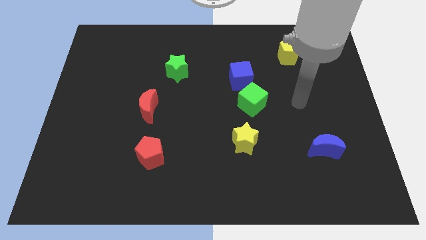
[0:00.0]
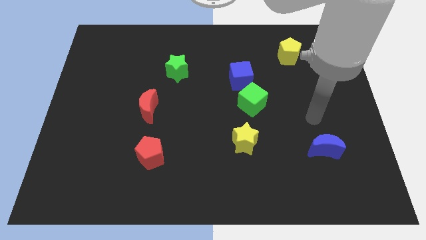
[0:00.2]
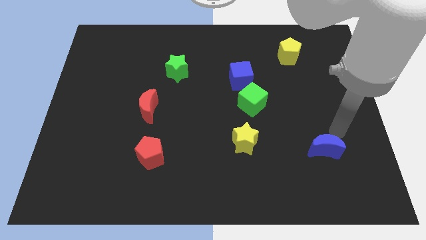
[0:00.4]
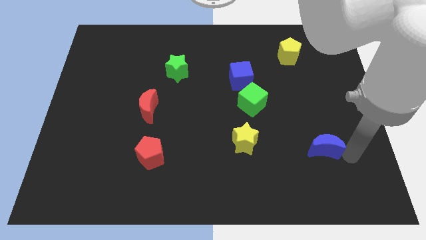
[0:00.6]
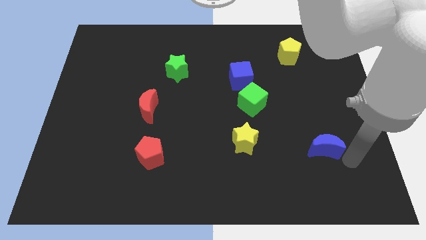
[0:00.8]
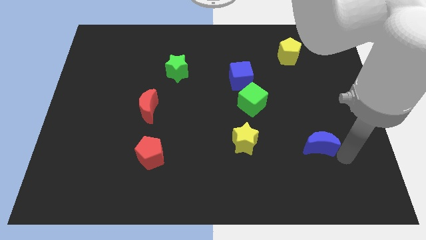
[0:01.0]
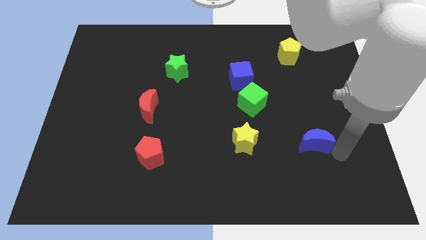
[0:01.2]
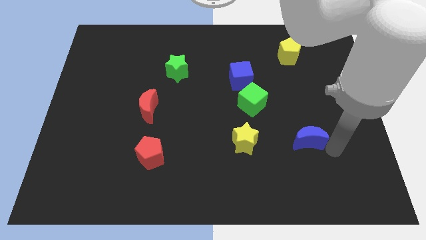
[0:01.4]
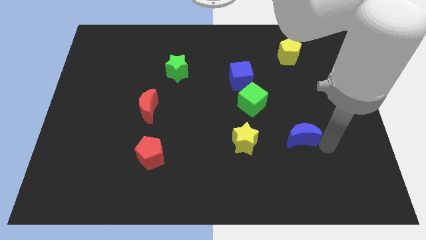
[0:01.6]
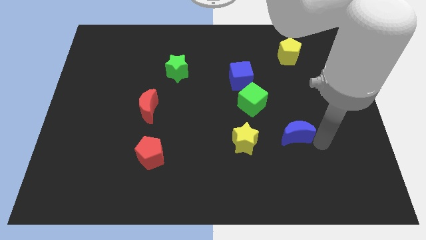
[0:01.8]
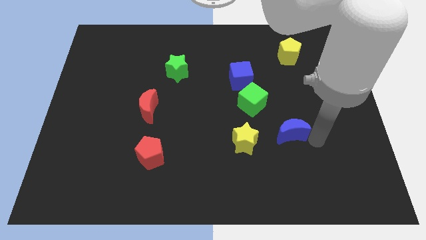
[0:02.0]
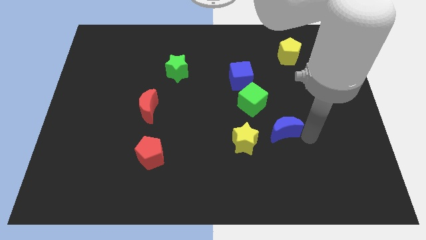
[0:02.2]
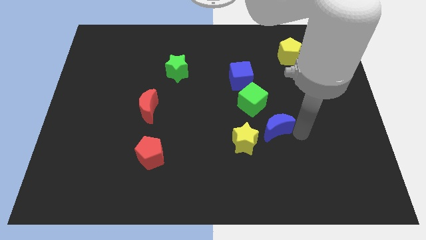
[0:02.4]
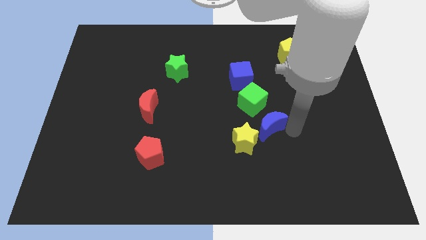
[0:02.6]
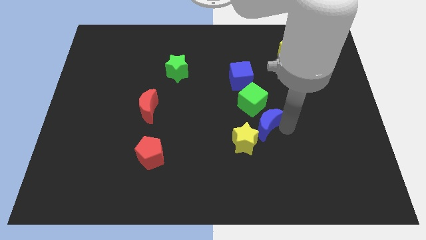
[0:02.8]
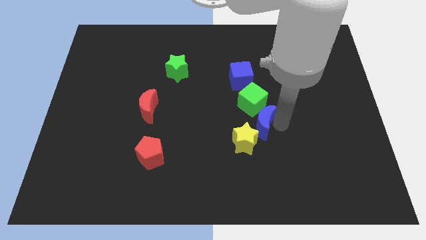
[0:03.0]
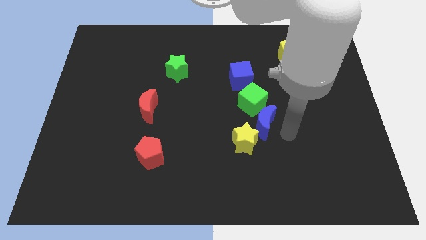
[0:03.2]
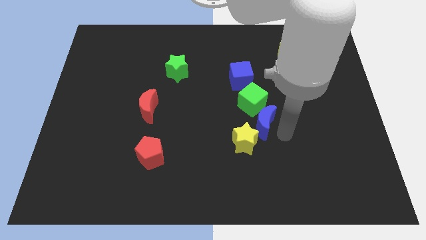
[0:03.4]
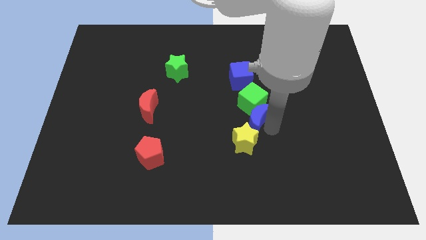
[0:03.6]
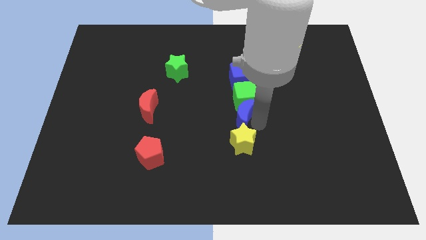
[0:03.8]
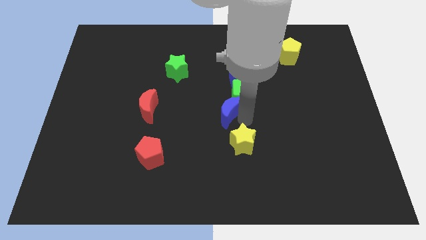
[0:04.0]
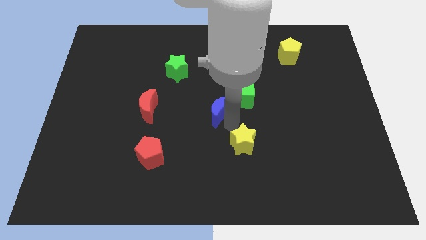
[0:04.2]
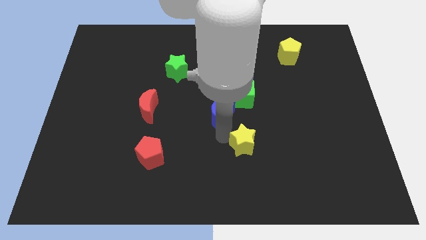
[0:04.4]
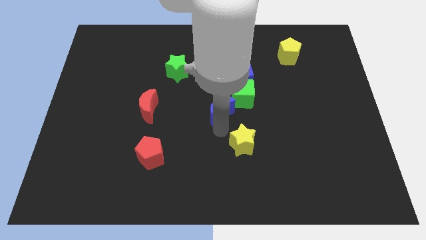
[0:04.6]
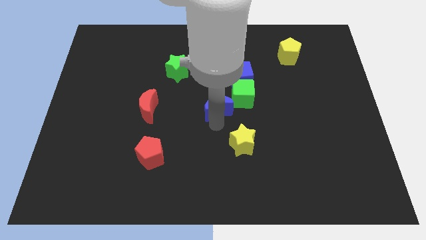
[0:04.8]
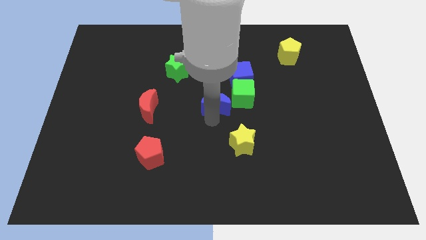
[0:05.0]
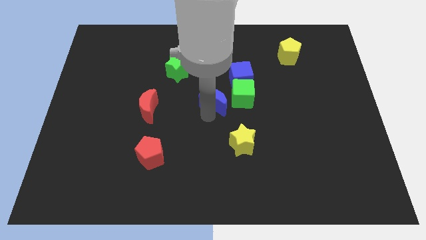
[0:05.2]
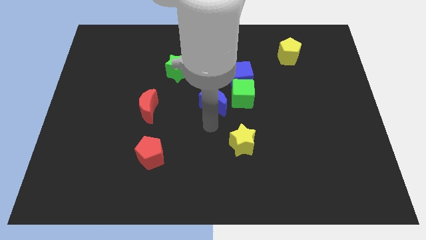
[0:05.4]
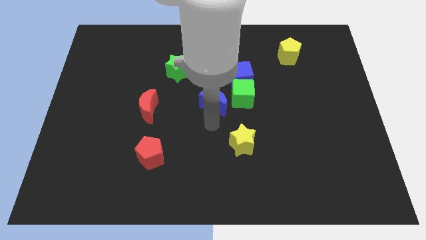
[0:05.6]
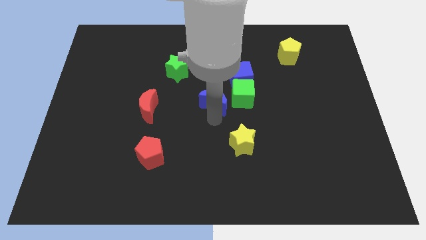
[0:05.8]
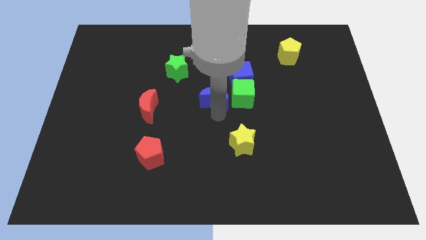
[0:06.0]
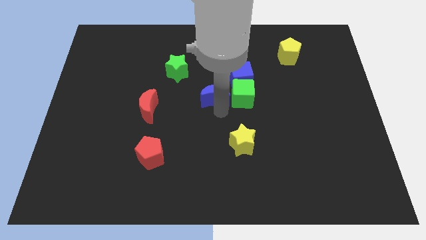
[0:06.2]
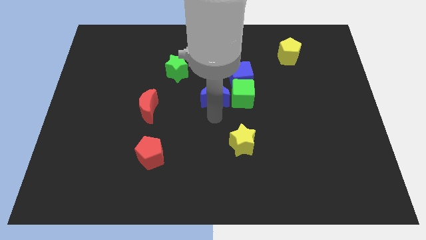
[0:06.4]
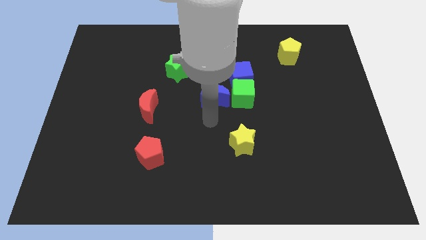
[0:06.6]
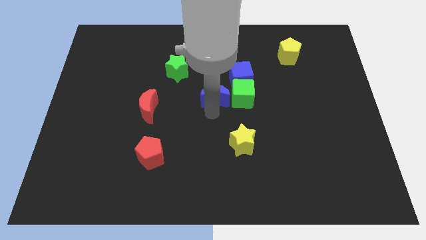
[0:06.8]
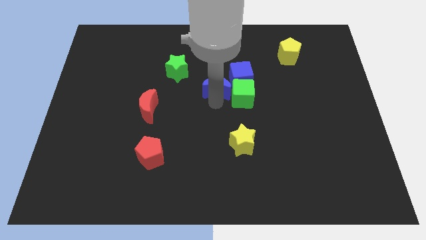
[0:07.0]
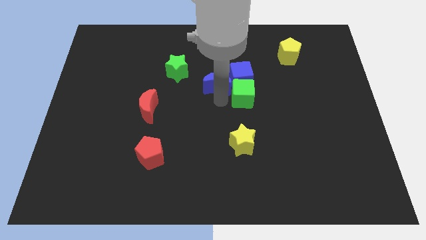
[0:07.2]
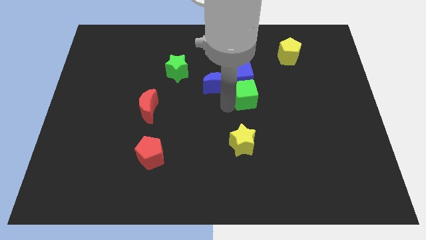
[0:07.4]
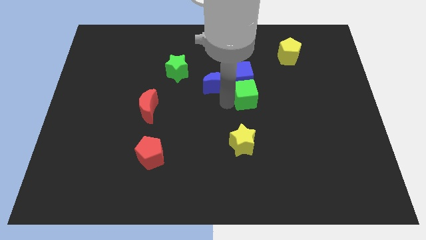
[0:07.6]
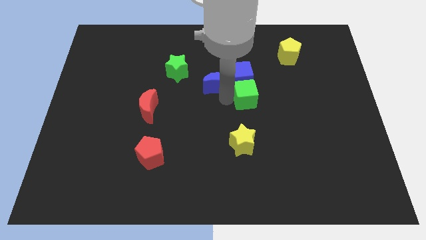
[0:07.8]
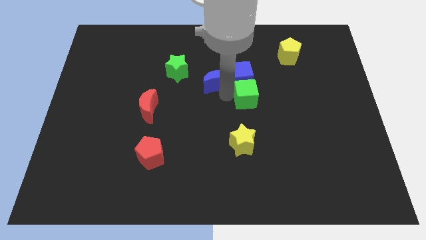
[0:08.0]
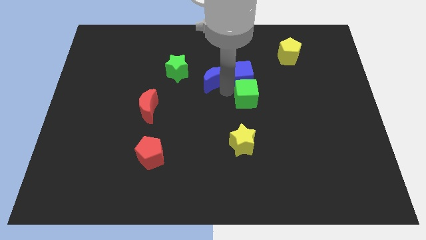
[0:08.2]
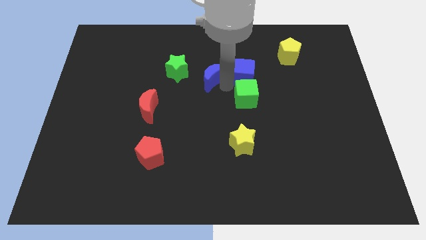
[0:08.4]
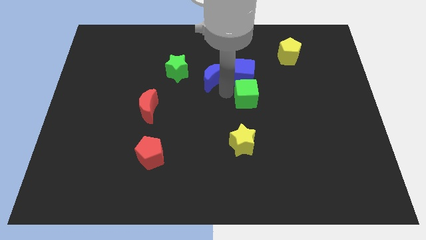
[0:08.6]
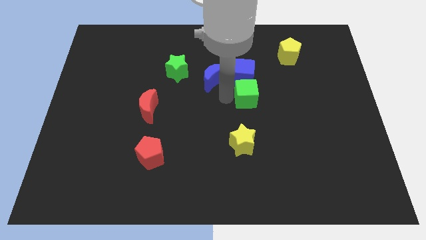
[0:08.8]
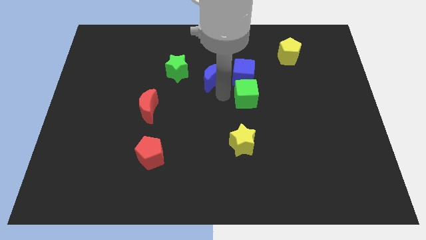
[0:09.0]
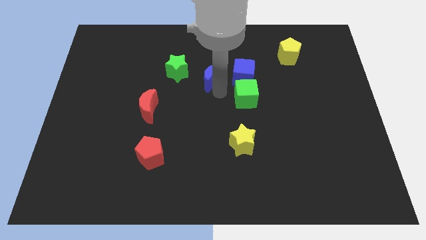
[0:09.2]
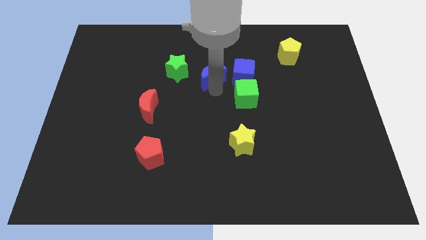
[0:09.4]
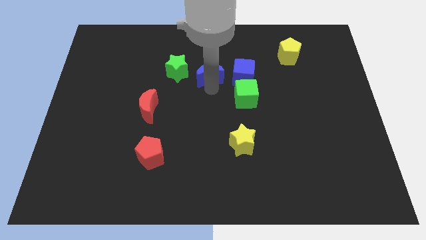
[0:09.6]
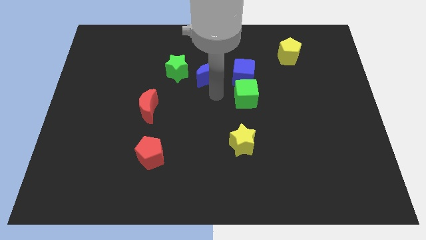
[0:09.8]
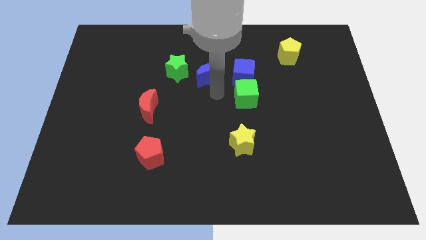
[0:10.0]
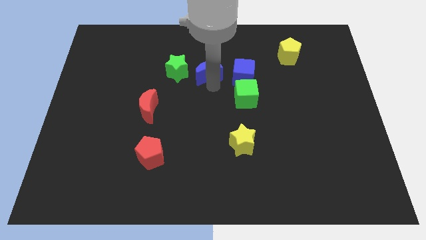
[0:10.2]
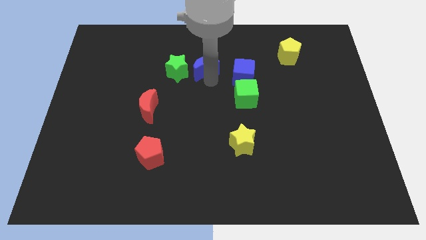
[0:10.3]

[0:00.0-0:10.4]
move the blue moon to the top right of the green star

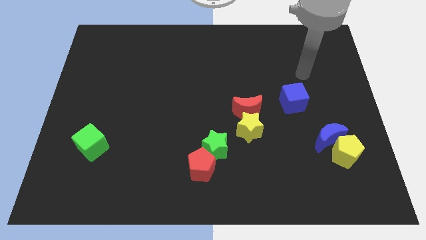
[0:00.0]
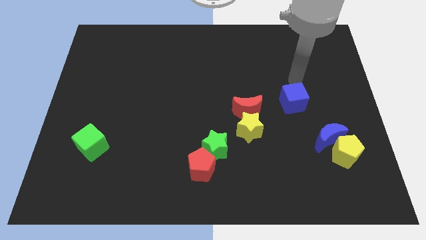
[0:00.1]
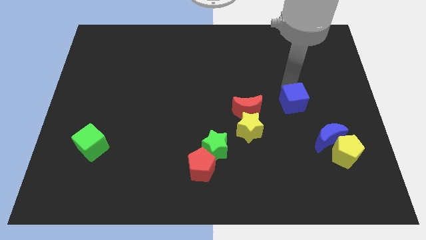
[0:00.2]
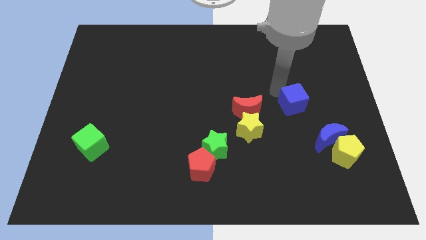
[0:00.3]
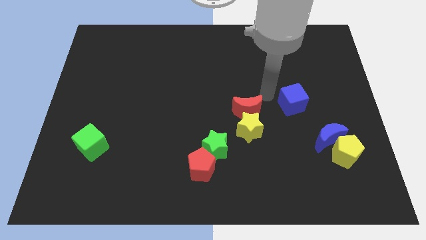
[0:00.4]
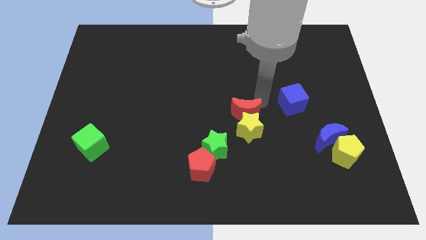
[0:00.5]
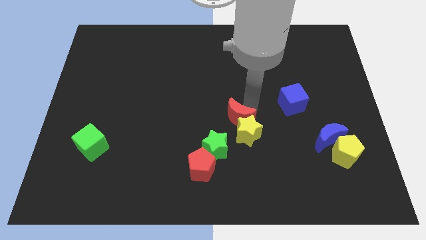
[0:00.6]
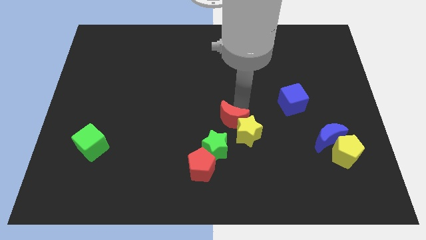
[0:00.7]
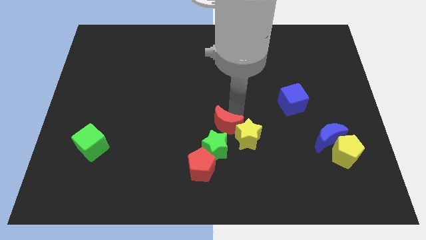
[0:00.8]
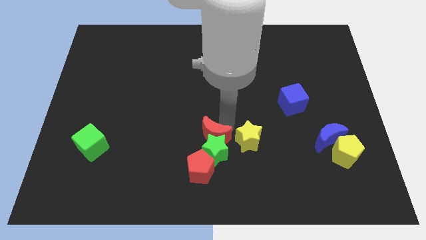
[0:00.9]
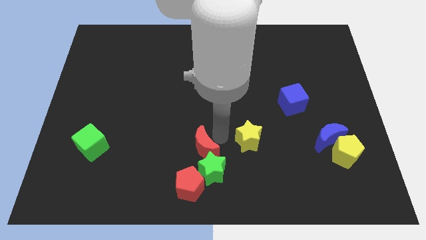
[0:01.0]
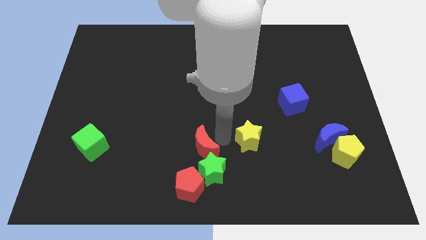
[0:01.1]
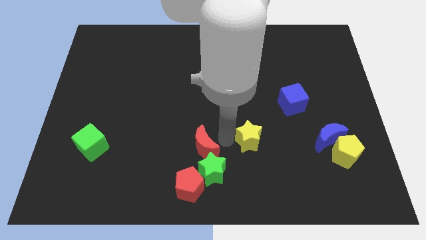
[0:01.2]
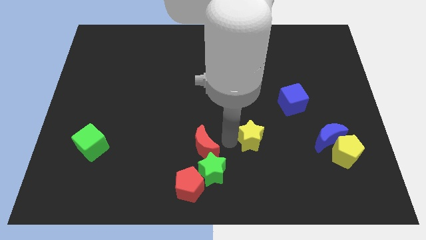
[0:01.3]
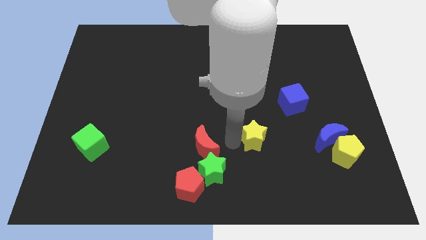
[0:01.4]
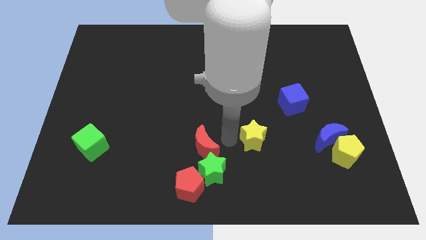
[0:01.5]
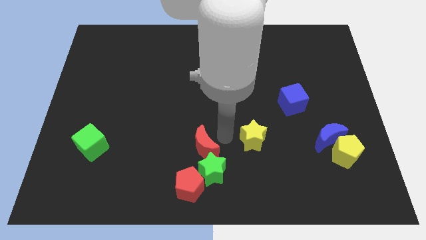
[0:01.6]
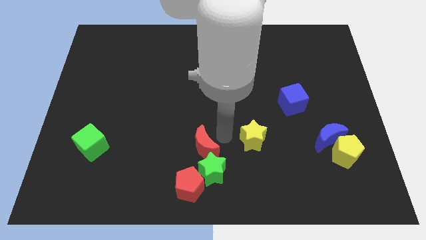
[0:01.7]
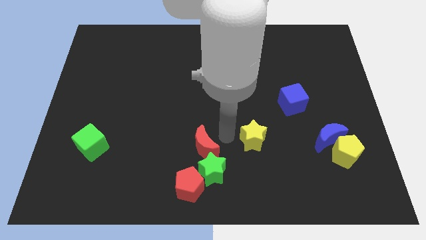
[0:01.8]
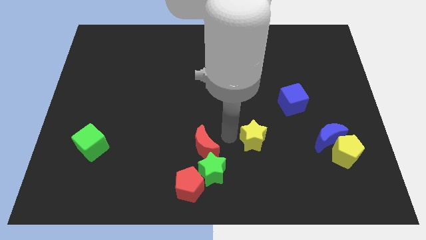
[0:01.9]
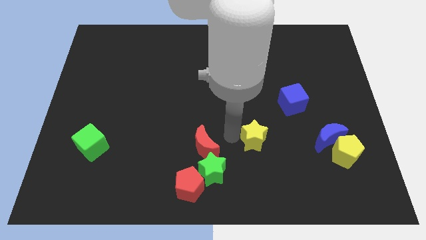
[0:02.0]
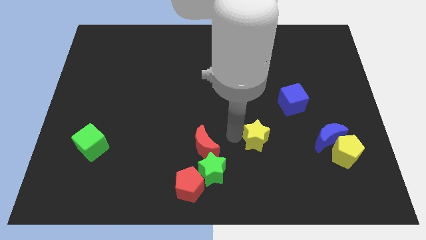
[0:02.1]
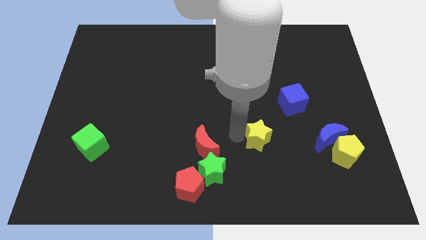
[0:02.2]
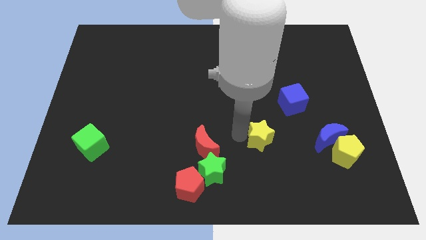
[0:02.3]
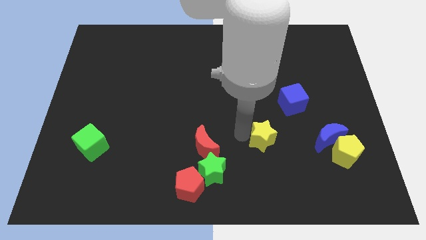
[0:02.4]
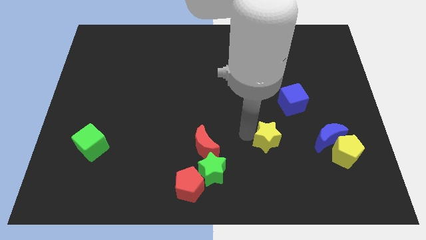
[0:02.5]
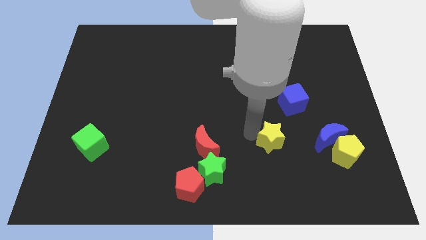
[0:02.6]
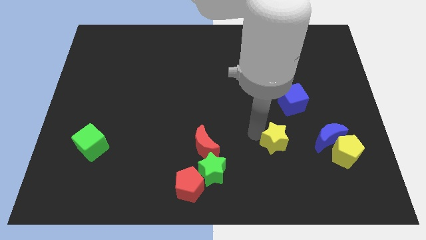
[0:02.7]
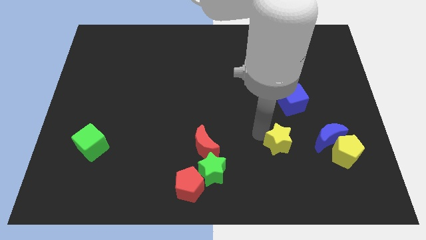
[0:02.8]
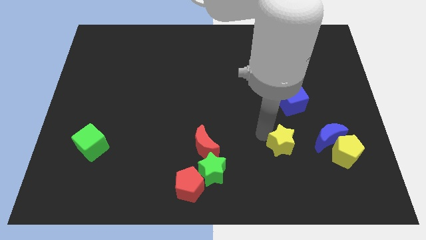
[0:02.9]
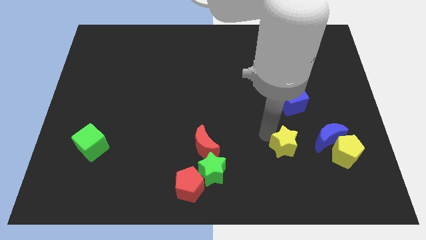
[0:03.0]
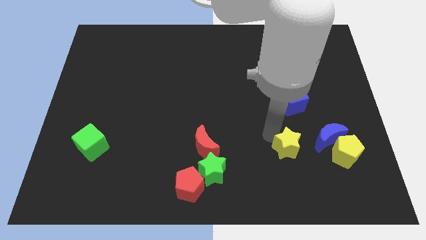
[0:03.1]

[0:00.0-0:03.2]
slide the yellow star diagonally down and to the left of the blue moon
